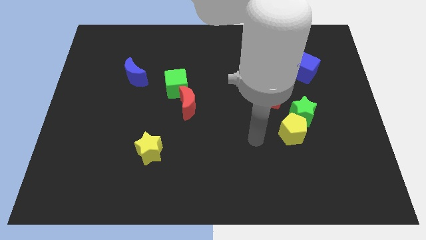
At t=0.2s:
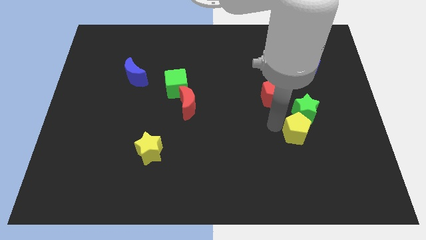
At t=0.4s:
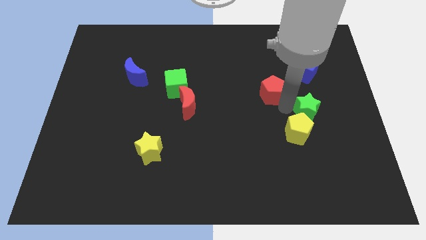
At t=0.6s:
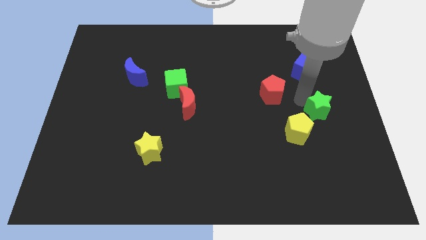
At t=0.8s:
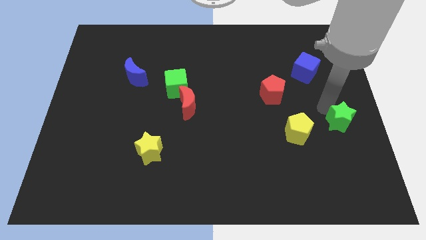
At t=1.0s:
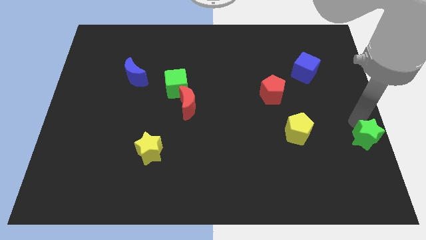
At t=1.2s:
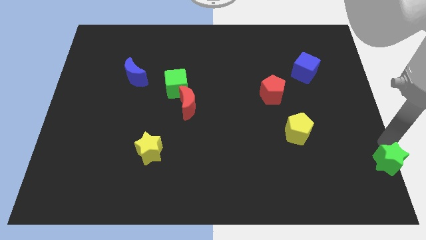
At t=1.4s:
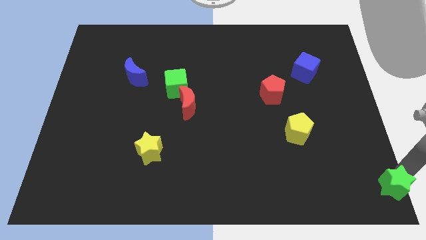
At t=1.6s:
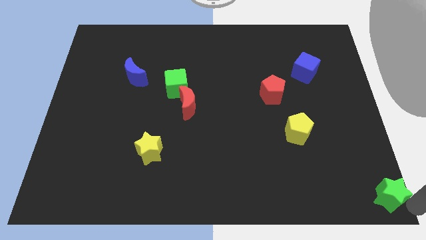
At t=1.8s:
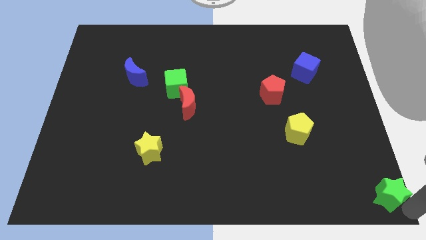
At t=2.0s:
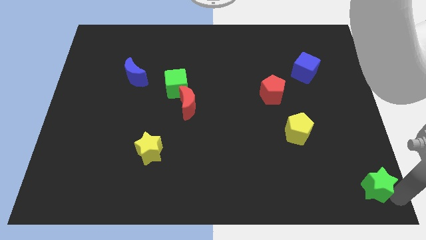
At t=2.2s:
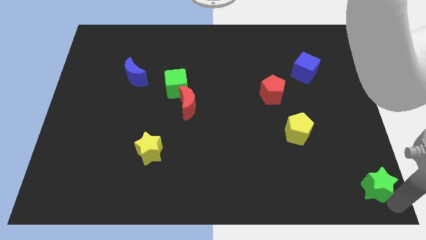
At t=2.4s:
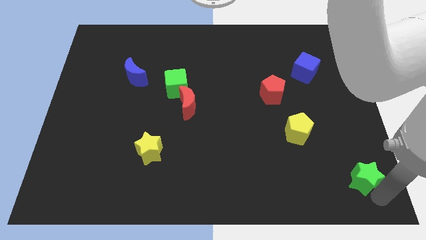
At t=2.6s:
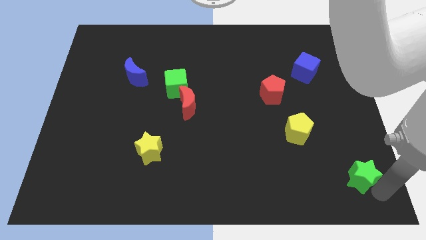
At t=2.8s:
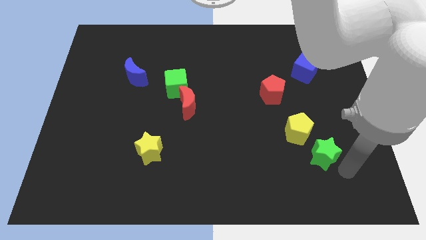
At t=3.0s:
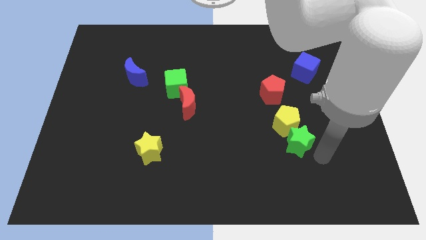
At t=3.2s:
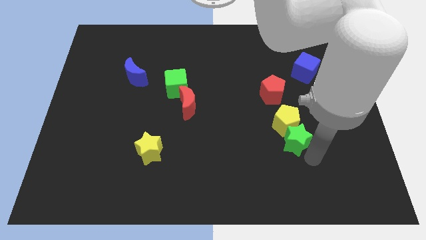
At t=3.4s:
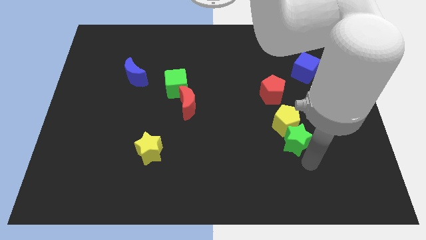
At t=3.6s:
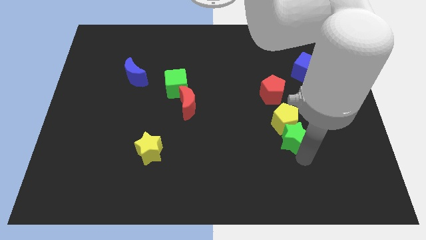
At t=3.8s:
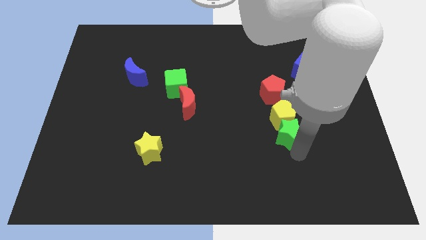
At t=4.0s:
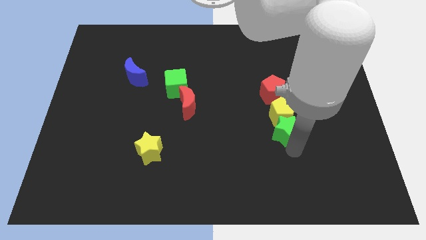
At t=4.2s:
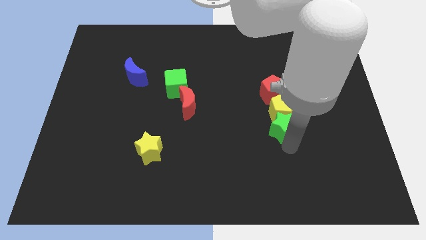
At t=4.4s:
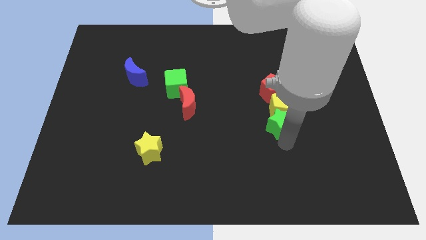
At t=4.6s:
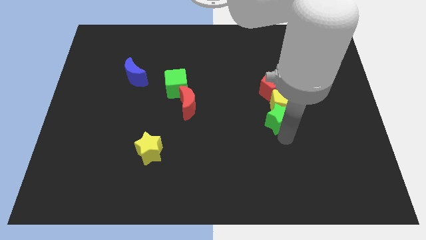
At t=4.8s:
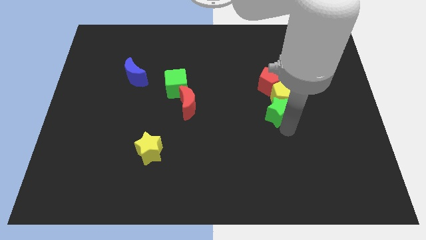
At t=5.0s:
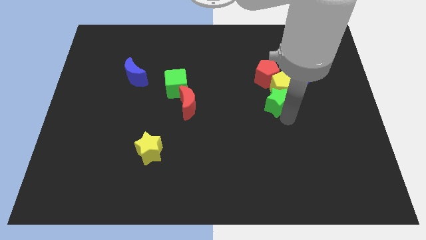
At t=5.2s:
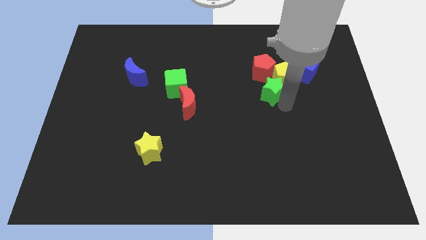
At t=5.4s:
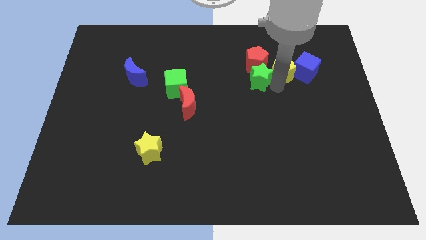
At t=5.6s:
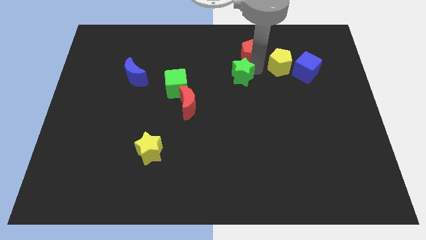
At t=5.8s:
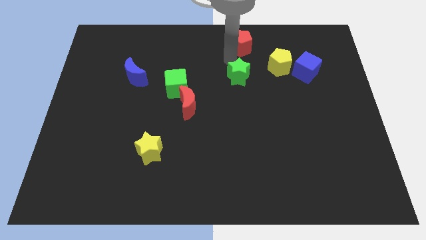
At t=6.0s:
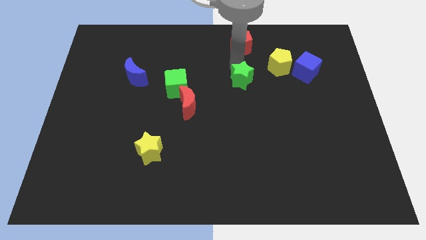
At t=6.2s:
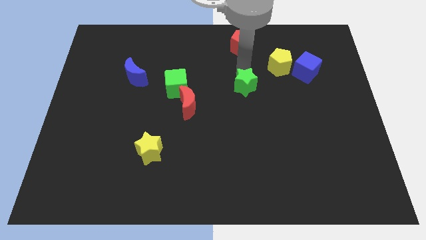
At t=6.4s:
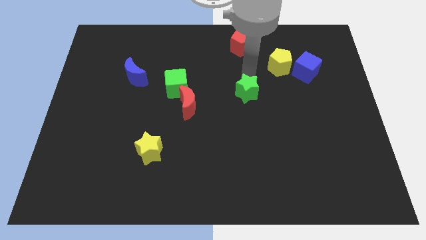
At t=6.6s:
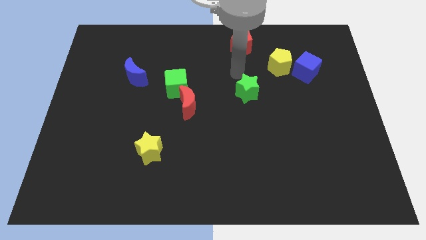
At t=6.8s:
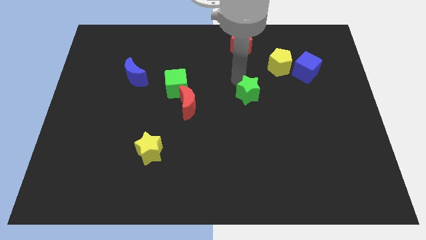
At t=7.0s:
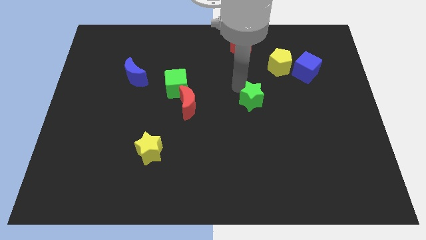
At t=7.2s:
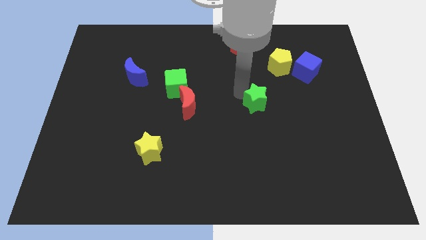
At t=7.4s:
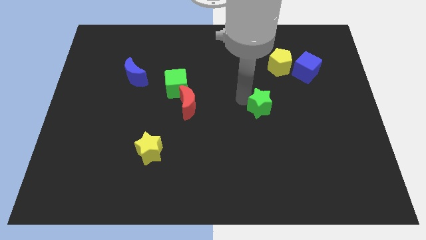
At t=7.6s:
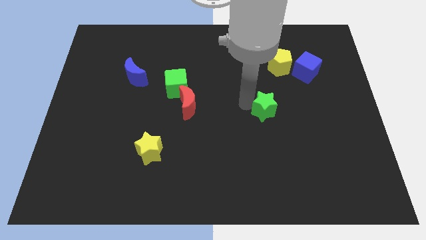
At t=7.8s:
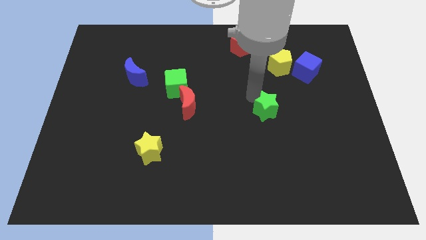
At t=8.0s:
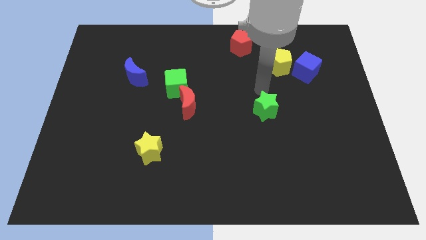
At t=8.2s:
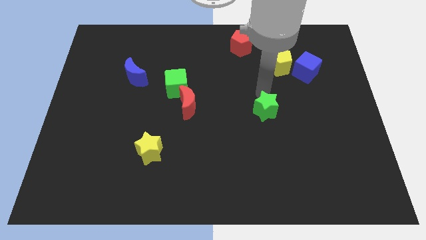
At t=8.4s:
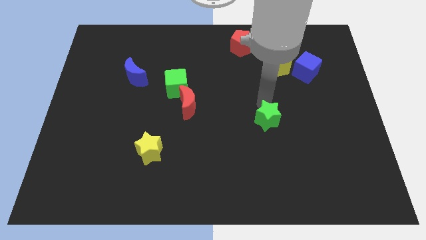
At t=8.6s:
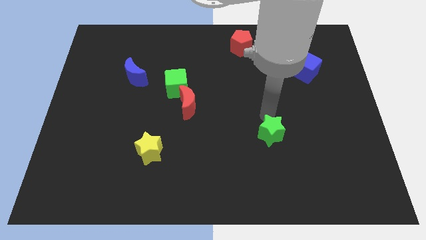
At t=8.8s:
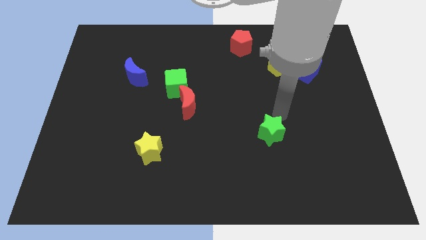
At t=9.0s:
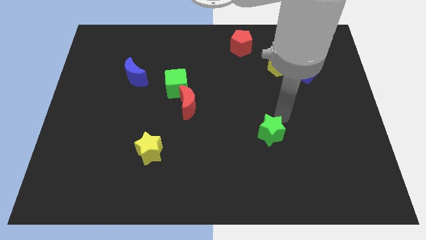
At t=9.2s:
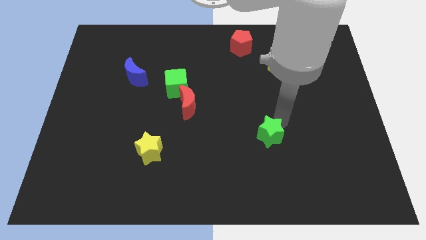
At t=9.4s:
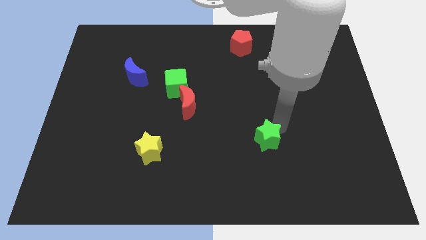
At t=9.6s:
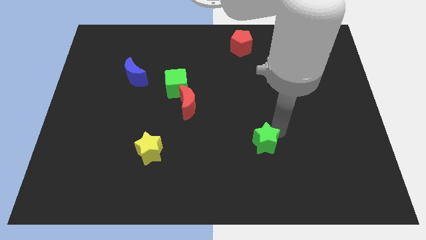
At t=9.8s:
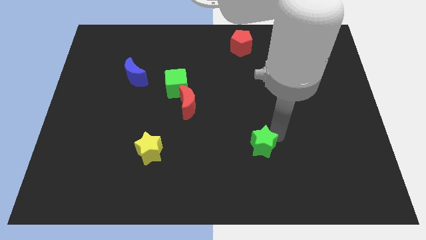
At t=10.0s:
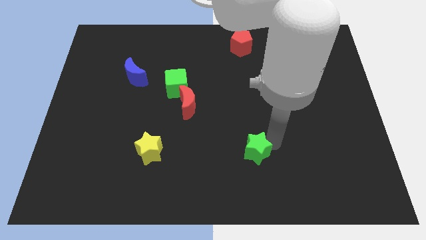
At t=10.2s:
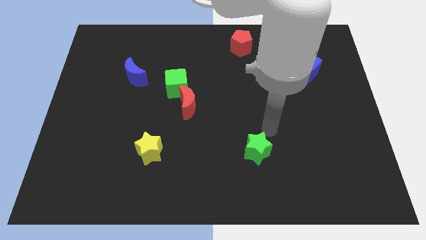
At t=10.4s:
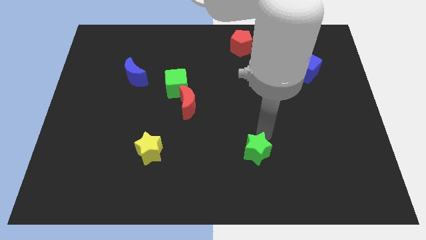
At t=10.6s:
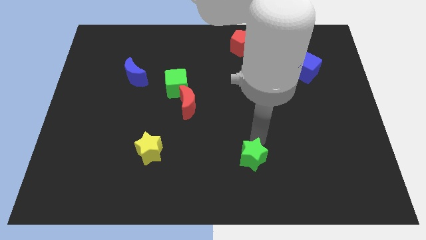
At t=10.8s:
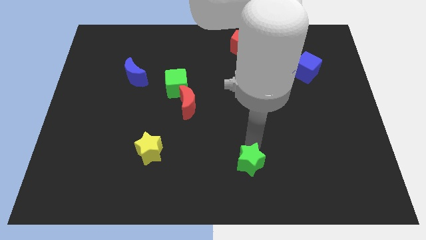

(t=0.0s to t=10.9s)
push the green star to the bottom side

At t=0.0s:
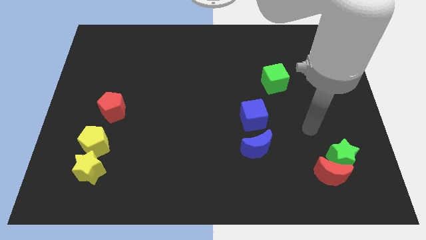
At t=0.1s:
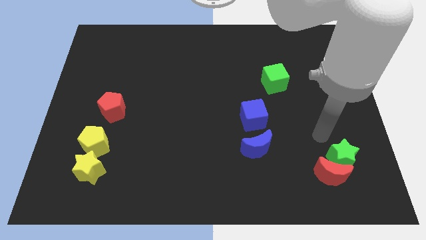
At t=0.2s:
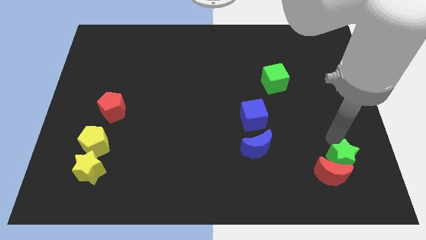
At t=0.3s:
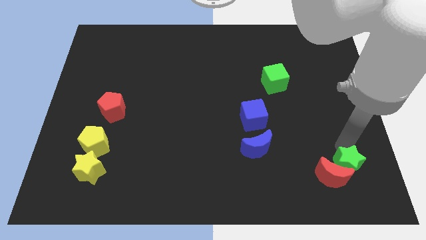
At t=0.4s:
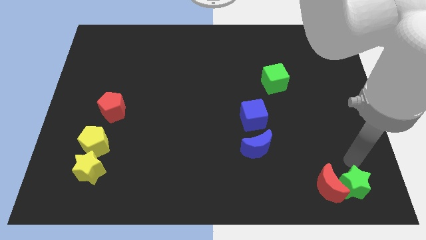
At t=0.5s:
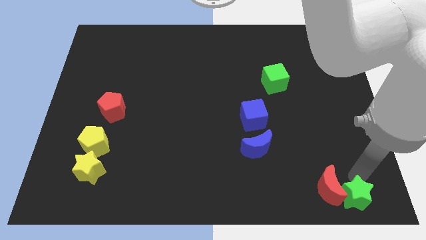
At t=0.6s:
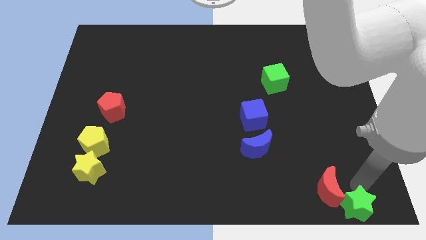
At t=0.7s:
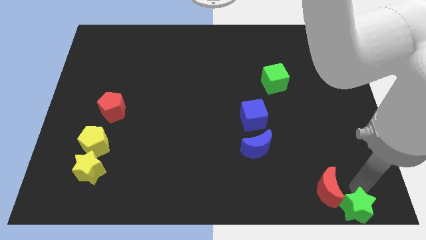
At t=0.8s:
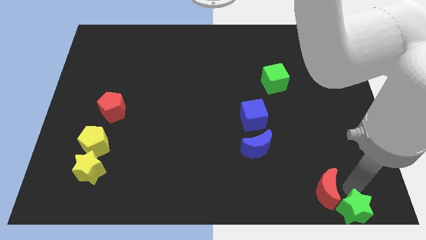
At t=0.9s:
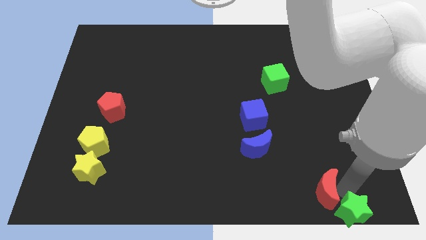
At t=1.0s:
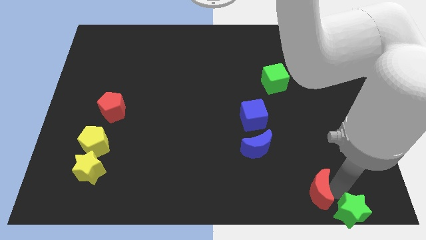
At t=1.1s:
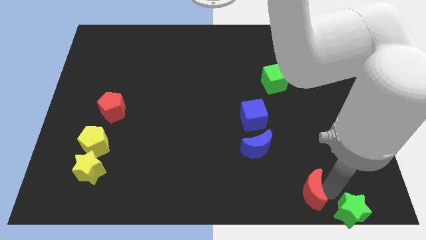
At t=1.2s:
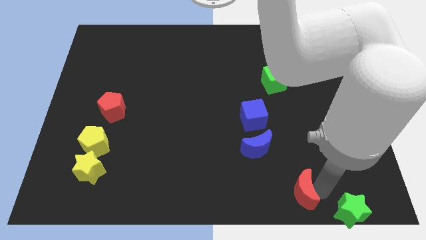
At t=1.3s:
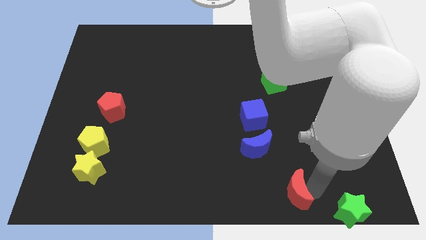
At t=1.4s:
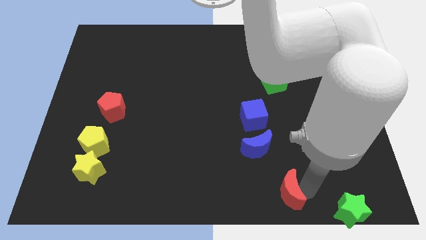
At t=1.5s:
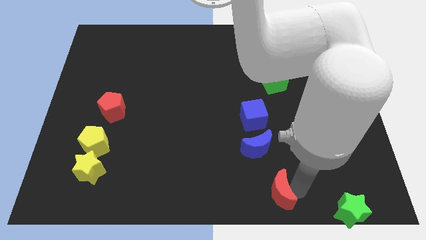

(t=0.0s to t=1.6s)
move the red moon to the bottom
